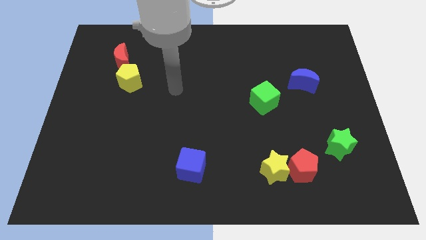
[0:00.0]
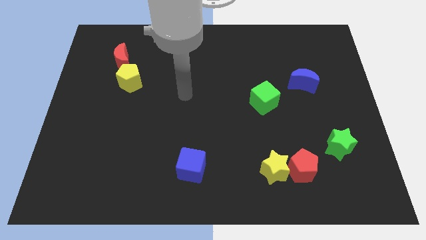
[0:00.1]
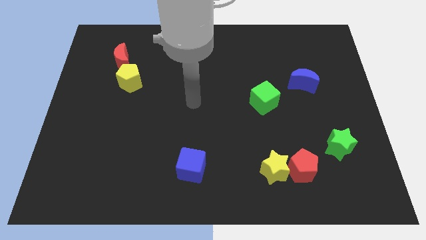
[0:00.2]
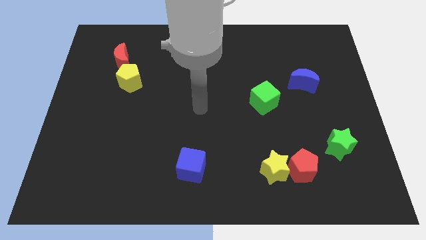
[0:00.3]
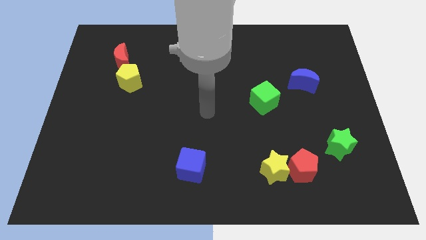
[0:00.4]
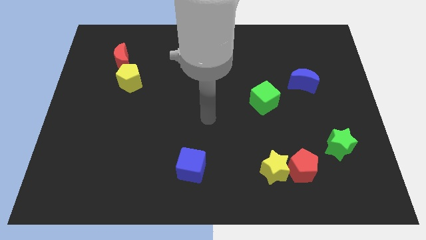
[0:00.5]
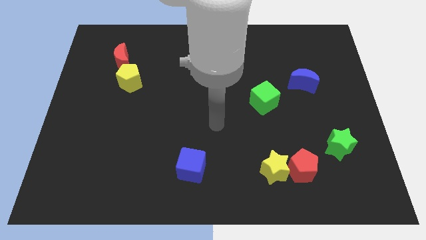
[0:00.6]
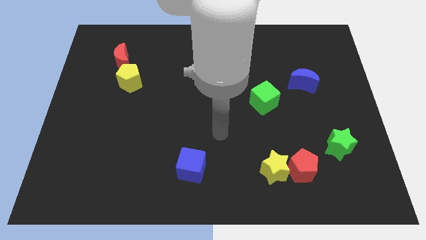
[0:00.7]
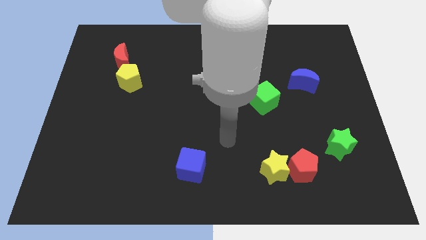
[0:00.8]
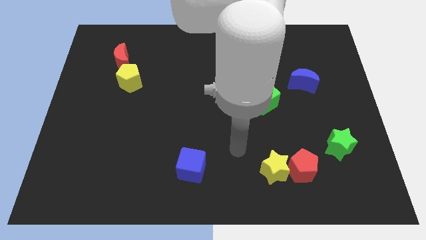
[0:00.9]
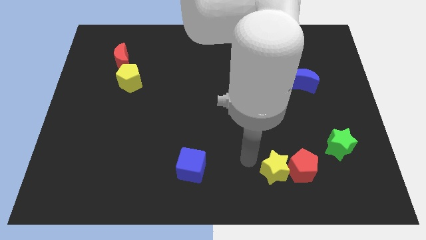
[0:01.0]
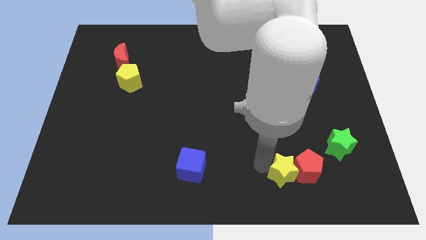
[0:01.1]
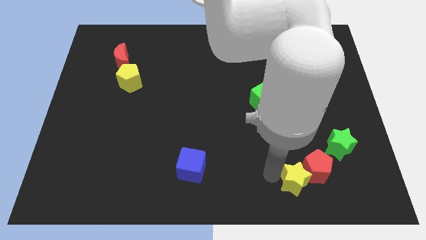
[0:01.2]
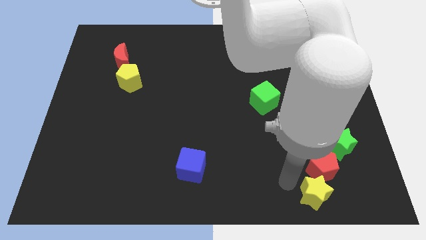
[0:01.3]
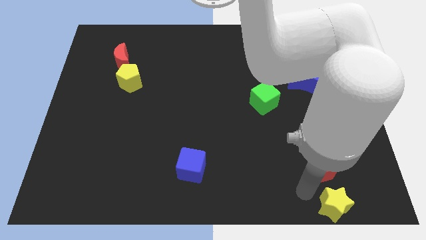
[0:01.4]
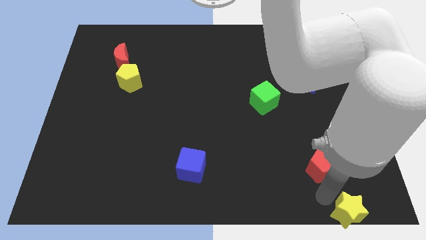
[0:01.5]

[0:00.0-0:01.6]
pull the red pentagon apart from the yellow star

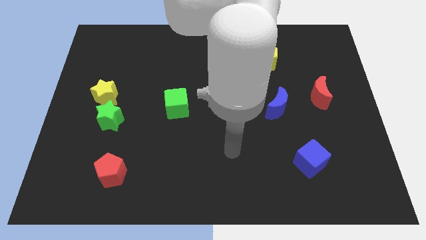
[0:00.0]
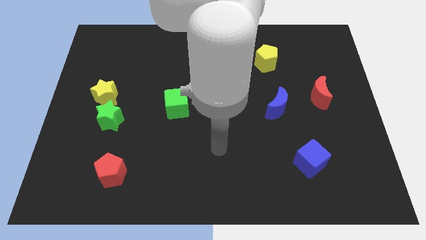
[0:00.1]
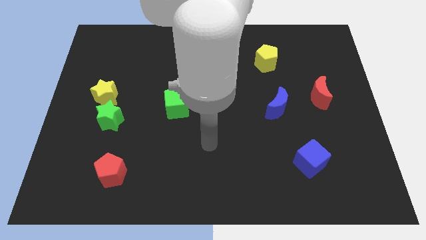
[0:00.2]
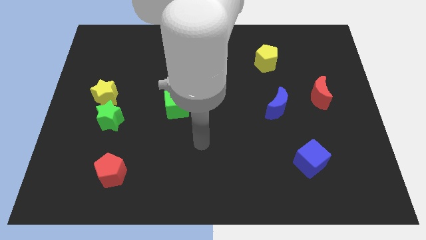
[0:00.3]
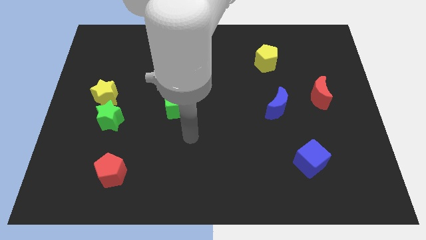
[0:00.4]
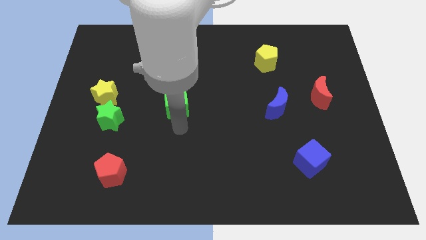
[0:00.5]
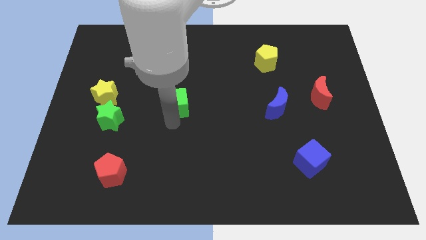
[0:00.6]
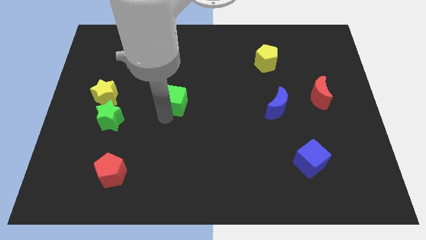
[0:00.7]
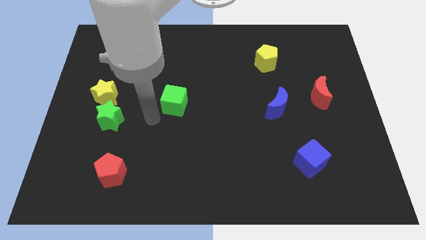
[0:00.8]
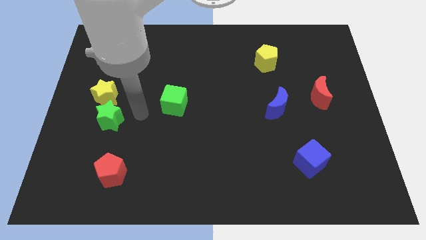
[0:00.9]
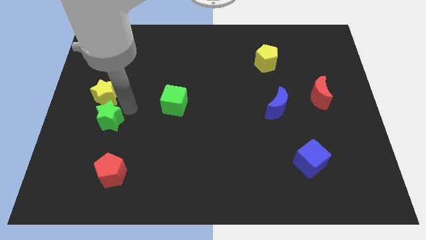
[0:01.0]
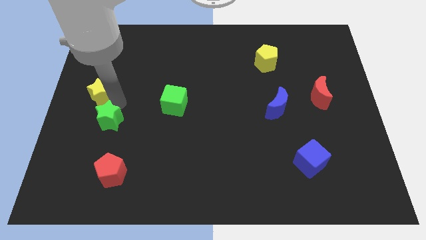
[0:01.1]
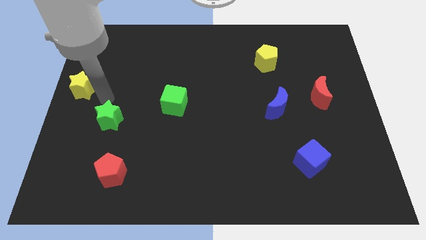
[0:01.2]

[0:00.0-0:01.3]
move the green star away from the yellow star

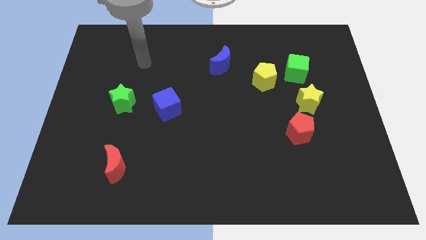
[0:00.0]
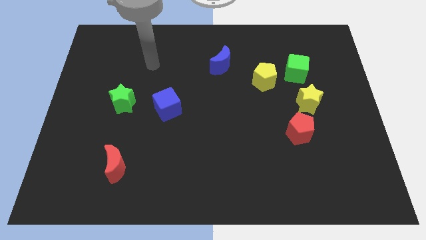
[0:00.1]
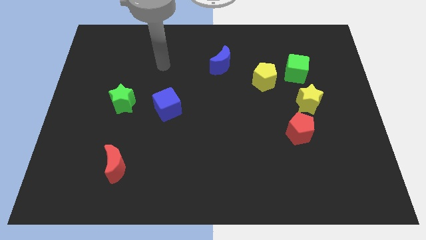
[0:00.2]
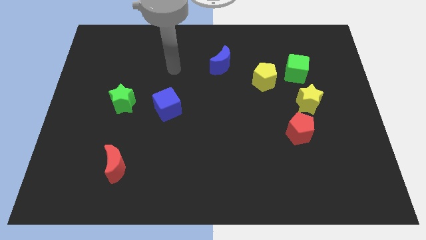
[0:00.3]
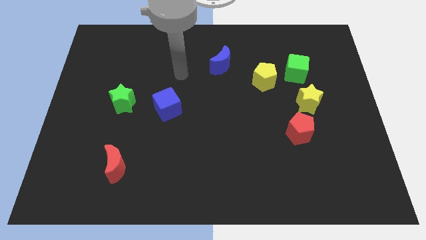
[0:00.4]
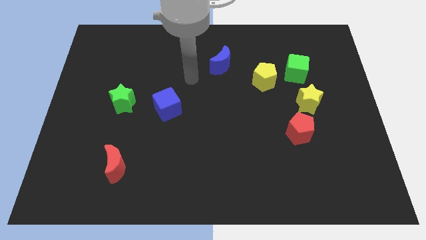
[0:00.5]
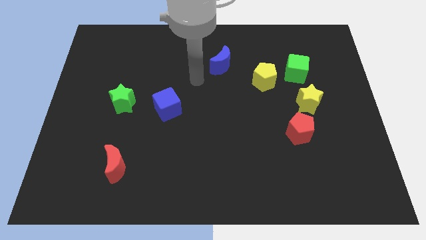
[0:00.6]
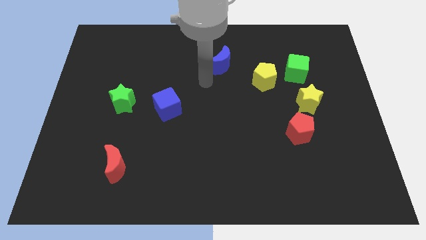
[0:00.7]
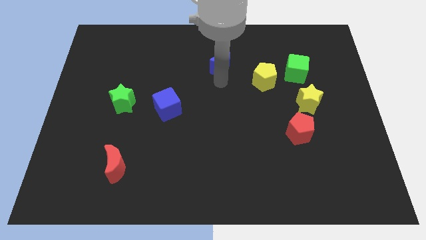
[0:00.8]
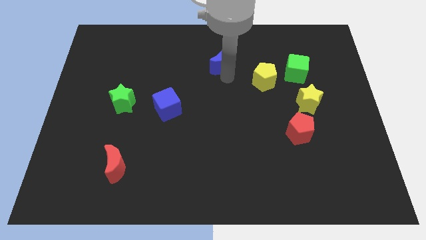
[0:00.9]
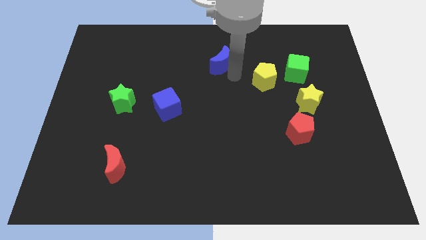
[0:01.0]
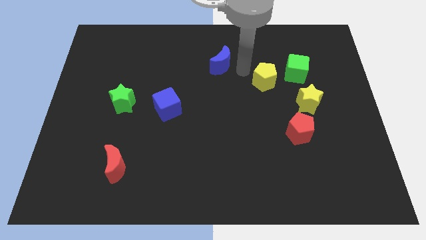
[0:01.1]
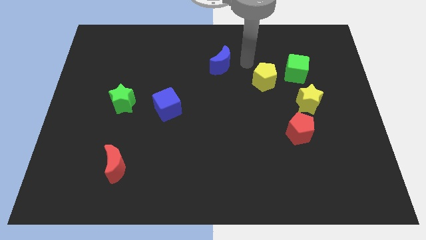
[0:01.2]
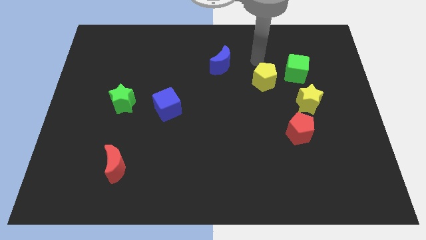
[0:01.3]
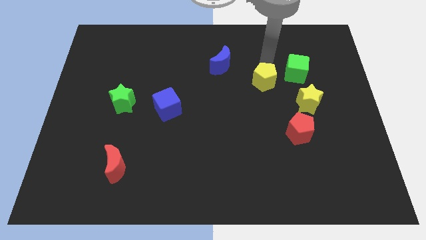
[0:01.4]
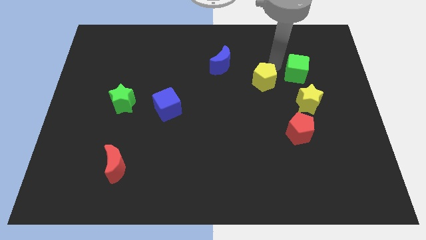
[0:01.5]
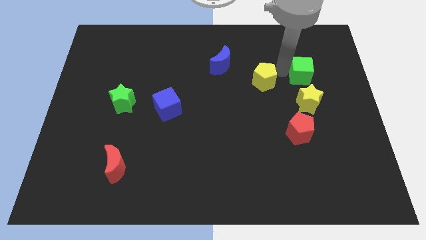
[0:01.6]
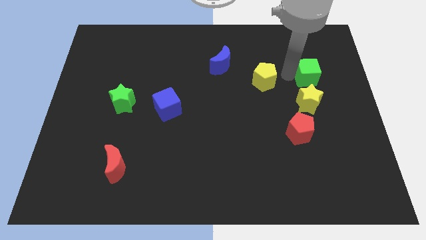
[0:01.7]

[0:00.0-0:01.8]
move the yellow pentagon away from the green cube

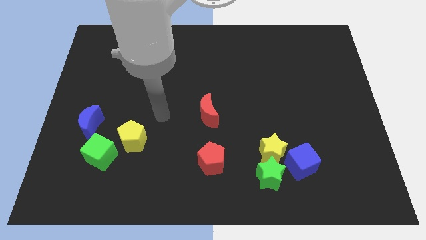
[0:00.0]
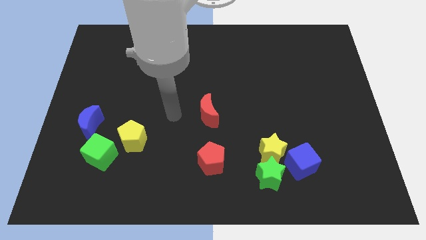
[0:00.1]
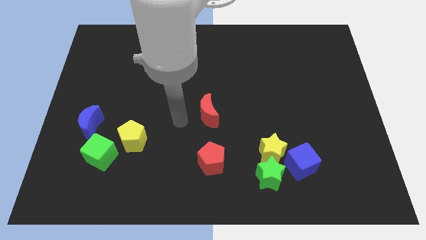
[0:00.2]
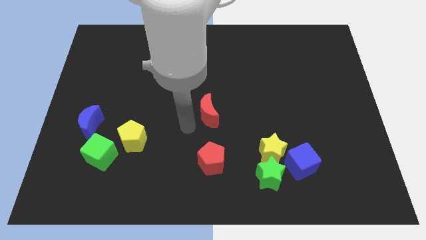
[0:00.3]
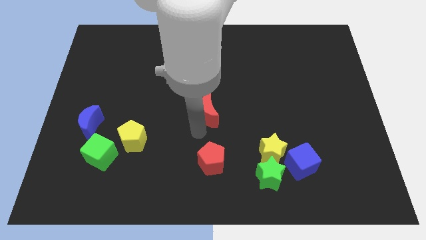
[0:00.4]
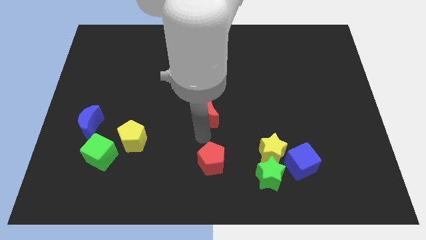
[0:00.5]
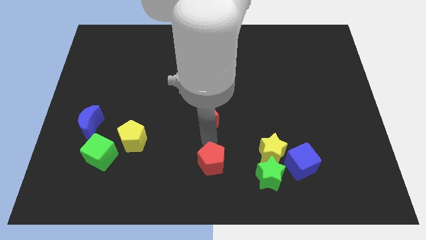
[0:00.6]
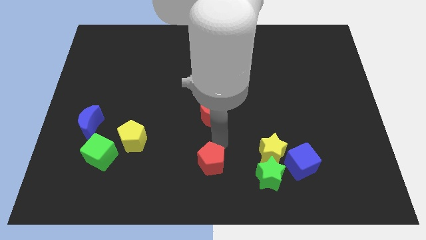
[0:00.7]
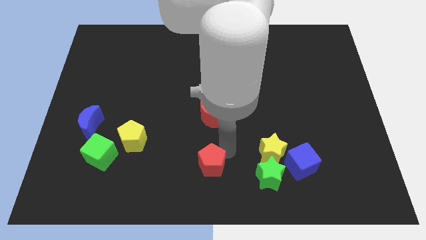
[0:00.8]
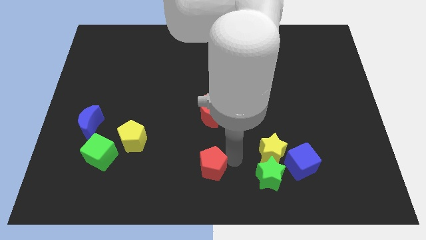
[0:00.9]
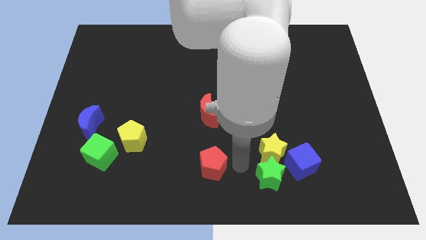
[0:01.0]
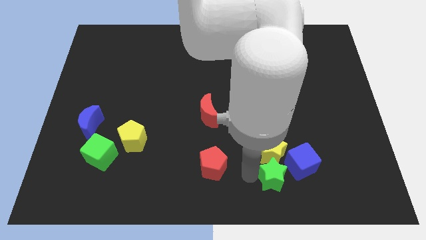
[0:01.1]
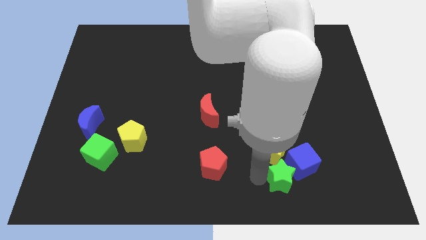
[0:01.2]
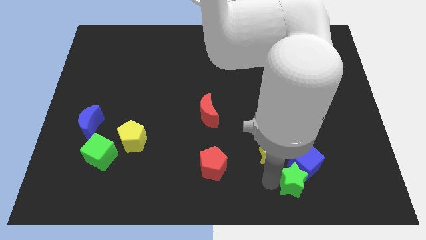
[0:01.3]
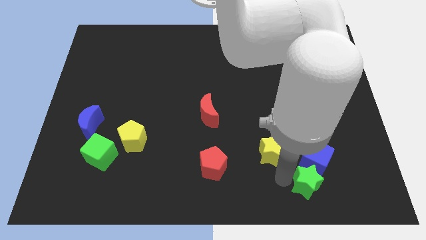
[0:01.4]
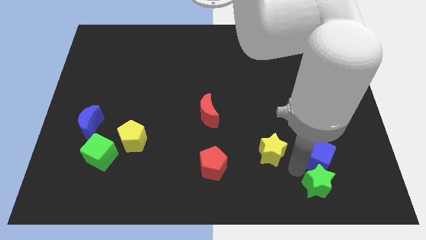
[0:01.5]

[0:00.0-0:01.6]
pull the yellow star apart from the green star and blue cube

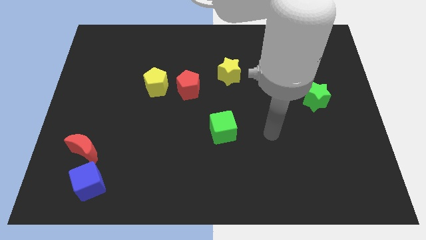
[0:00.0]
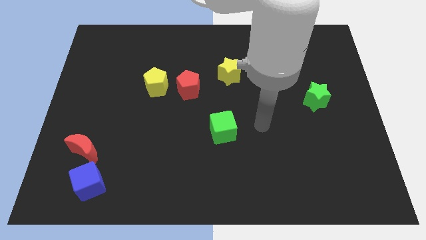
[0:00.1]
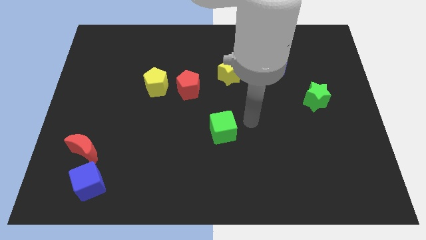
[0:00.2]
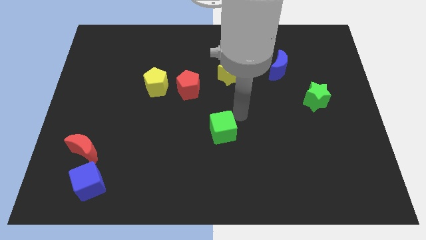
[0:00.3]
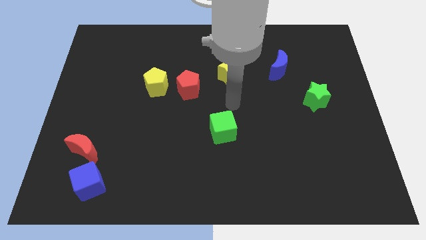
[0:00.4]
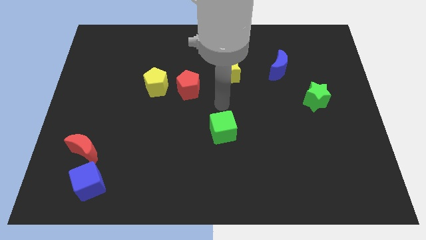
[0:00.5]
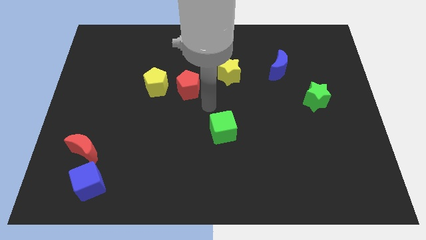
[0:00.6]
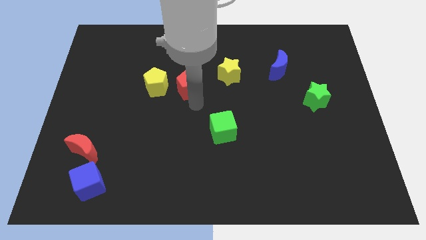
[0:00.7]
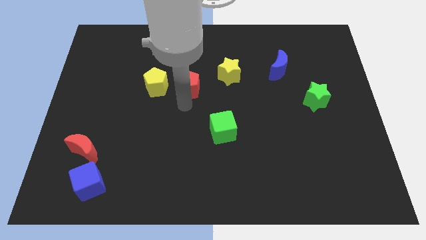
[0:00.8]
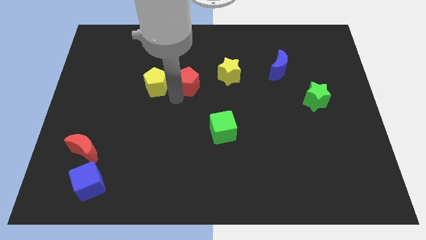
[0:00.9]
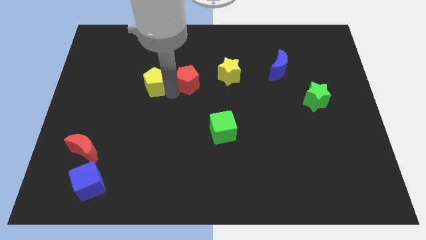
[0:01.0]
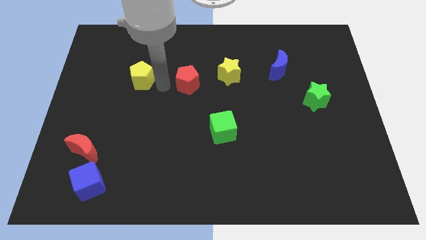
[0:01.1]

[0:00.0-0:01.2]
move the red pentagon away from the yellow pentagon

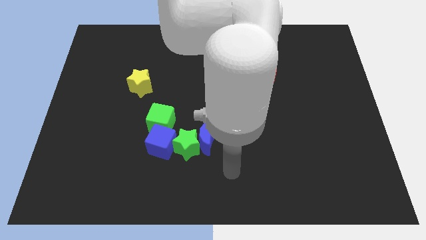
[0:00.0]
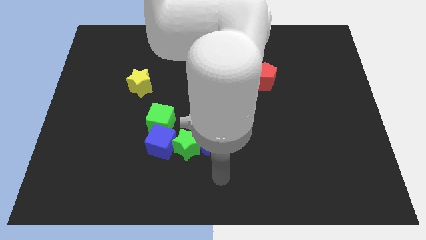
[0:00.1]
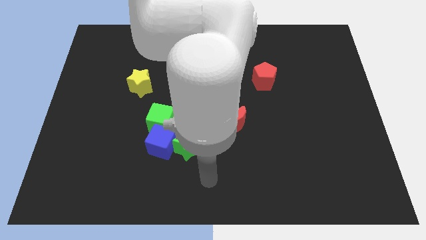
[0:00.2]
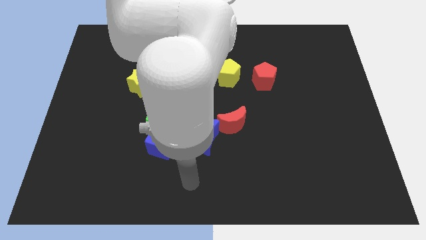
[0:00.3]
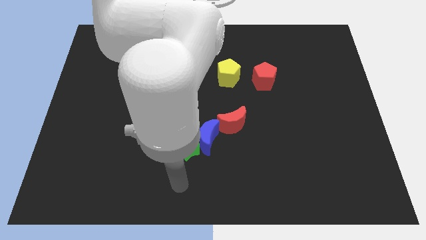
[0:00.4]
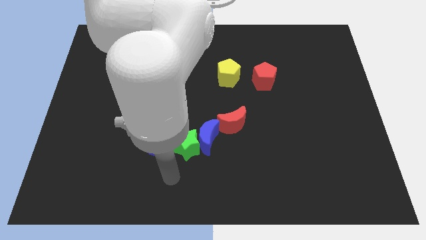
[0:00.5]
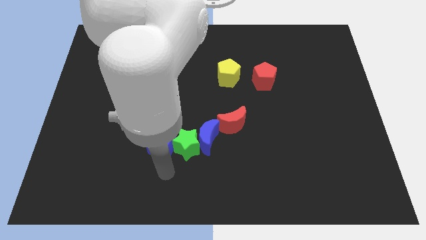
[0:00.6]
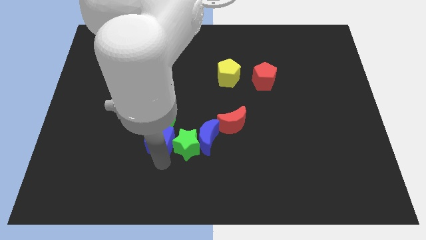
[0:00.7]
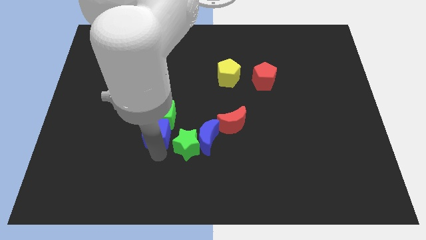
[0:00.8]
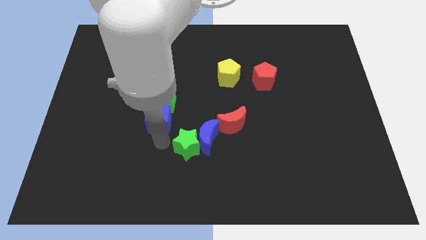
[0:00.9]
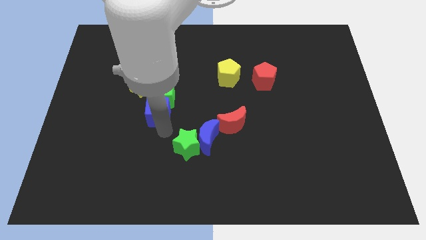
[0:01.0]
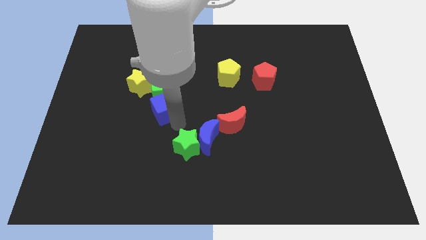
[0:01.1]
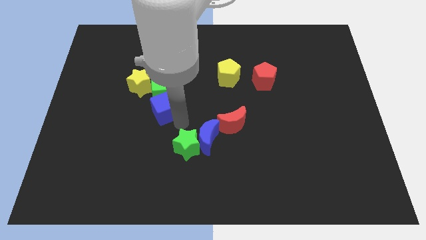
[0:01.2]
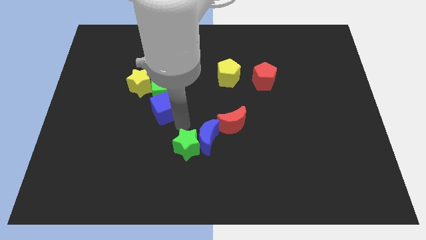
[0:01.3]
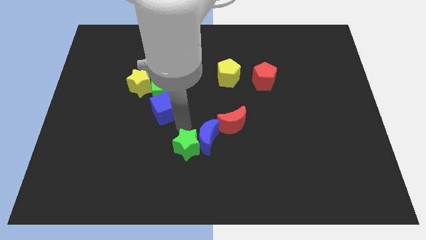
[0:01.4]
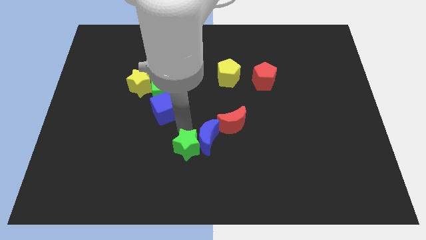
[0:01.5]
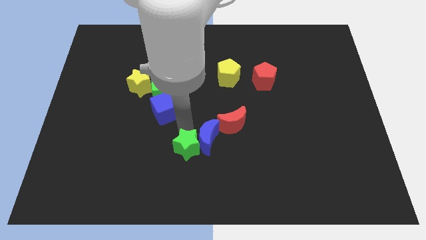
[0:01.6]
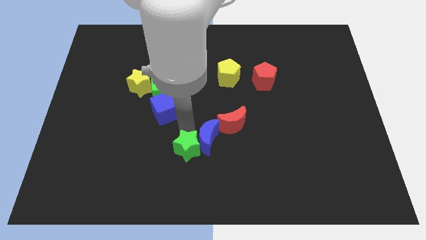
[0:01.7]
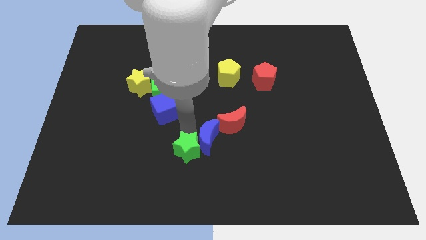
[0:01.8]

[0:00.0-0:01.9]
move the green star away from the blue moon, blue cube, and green cube
